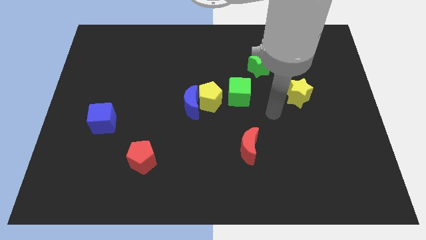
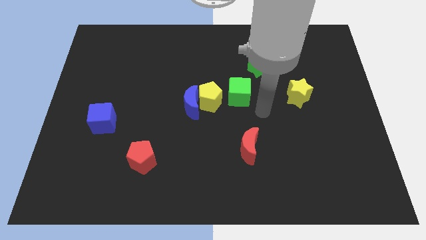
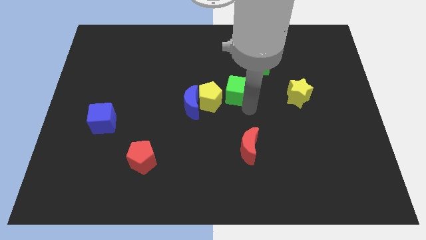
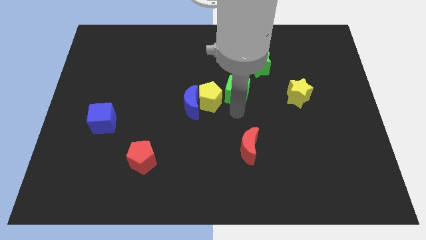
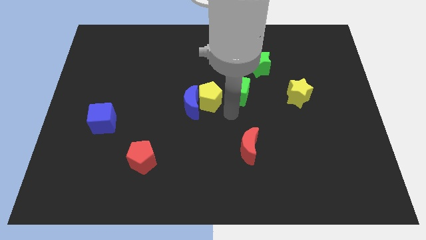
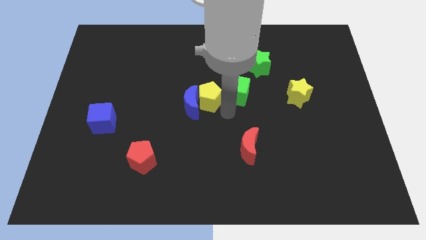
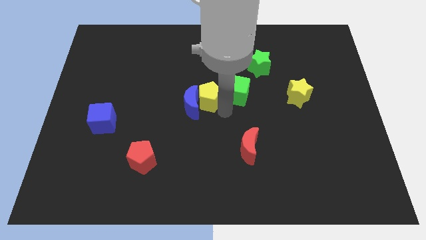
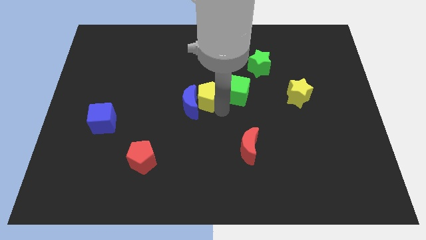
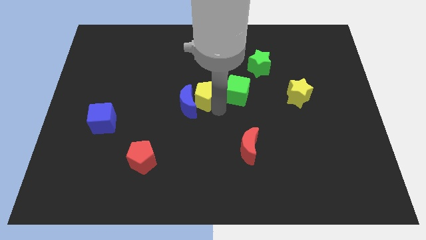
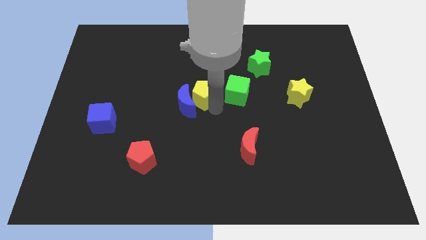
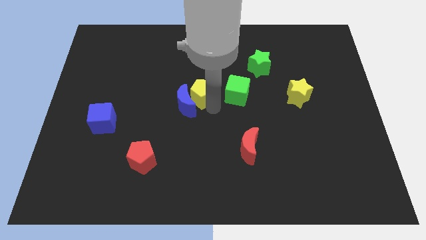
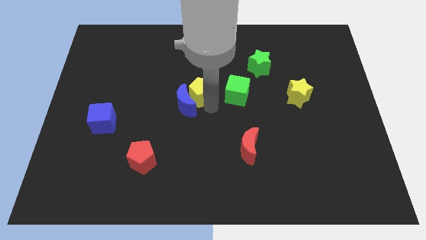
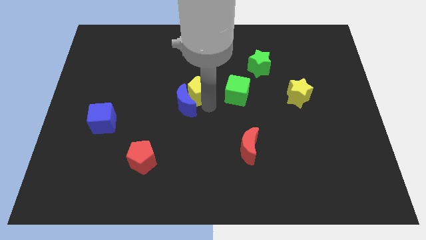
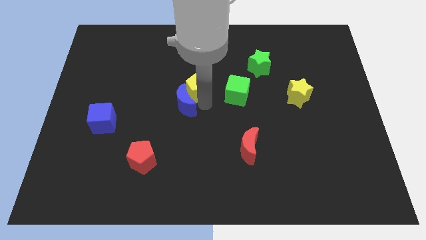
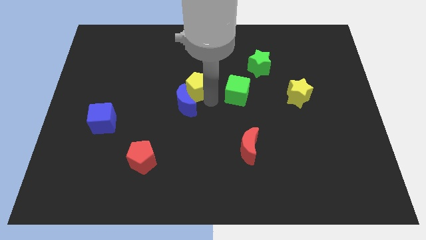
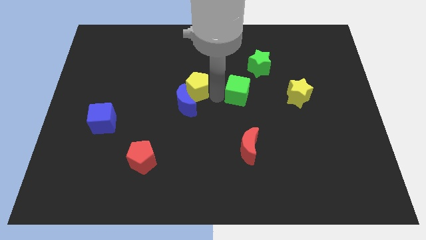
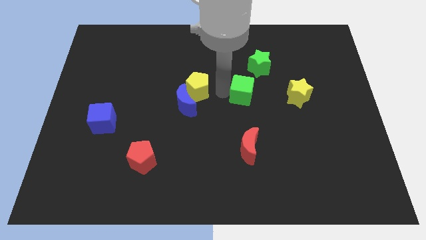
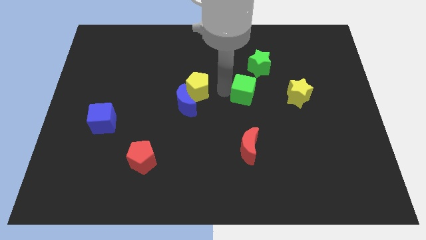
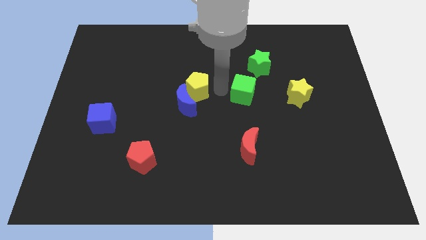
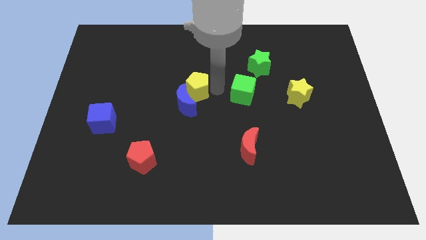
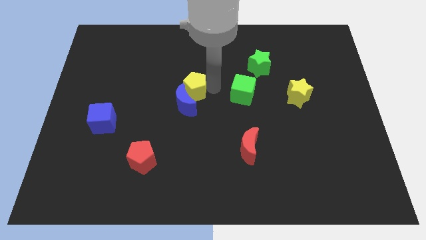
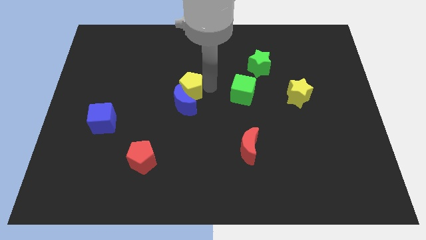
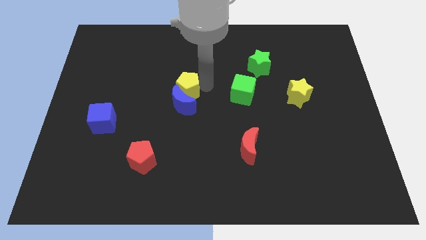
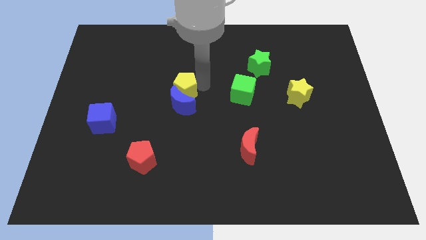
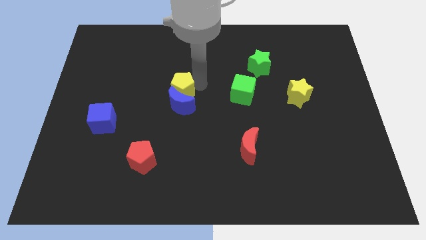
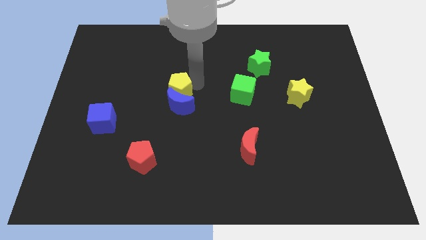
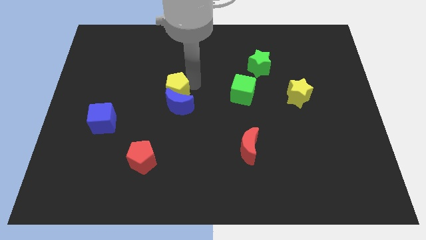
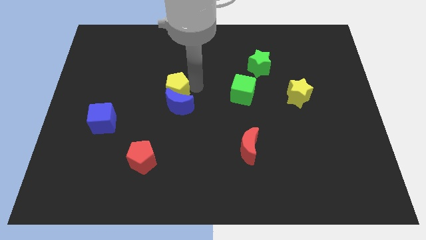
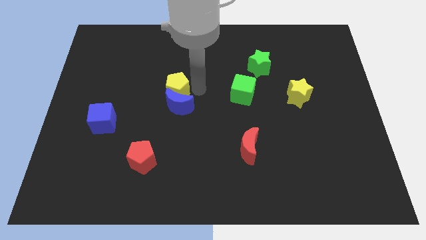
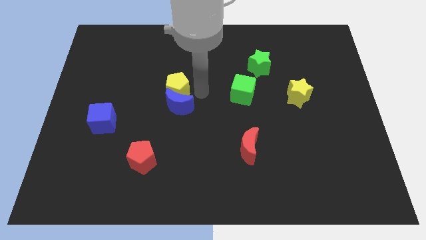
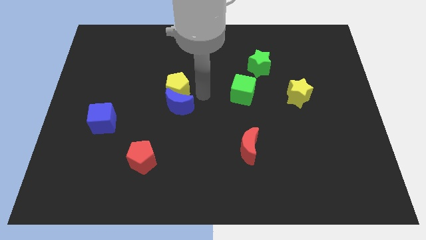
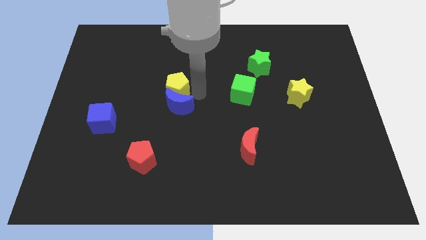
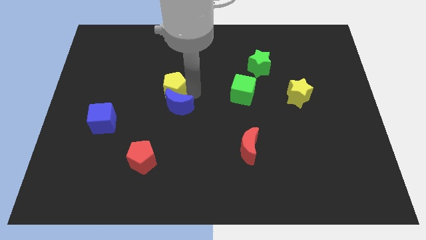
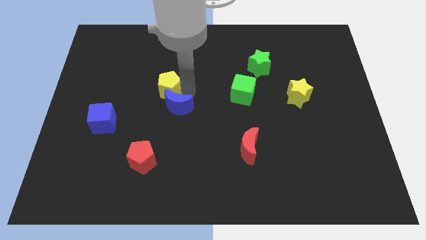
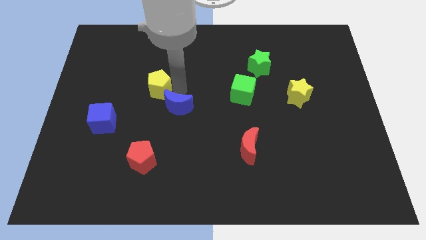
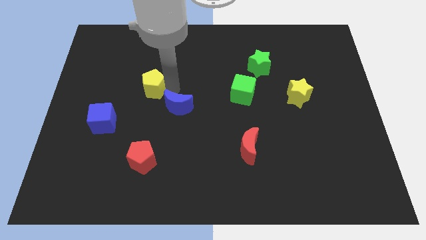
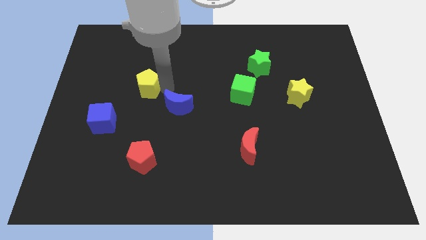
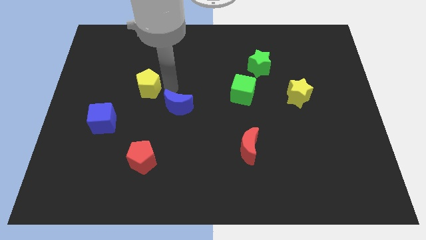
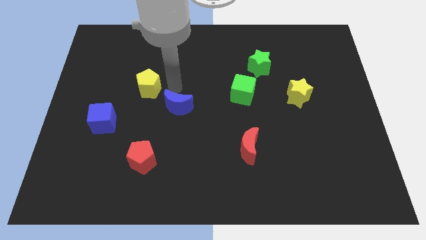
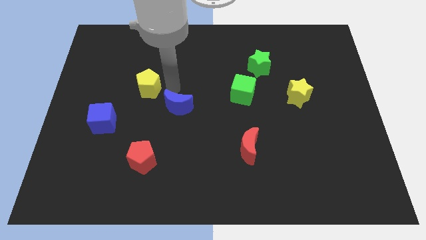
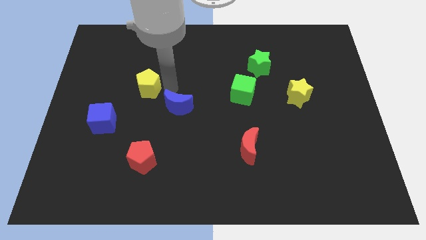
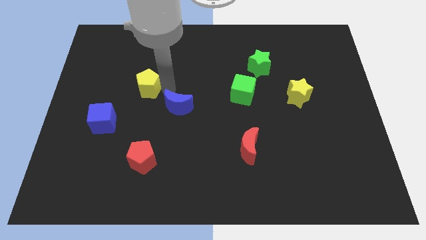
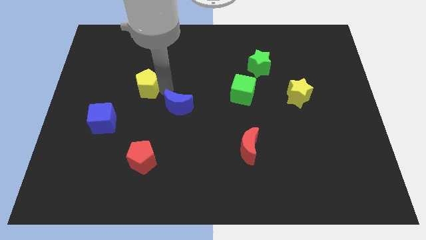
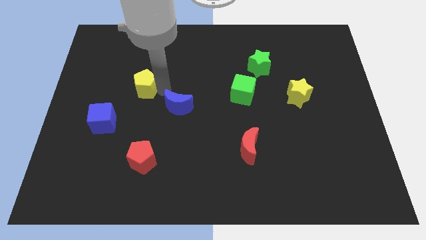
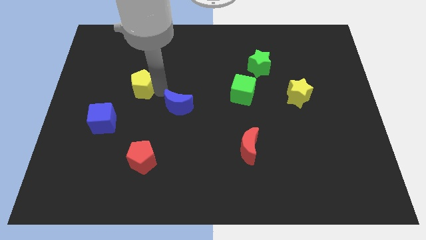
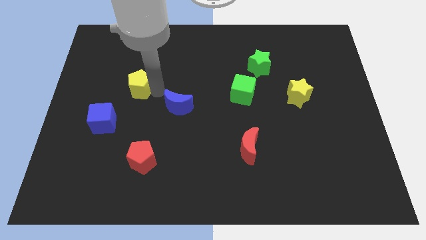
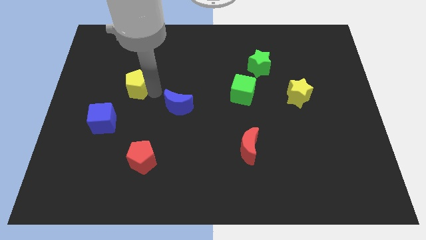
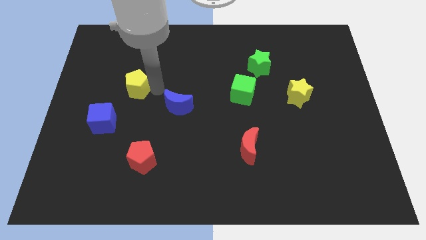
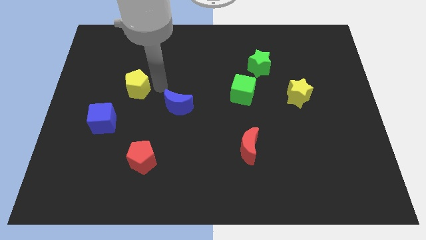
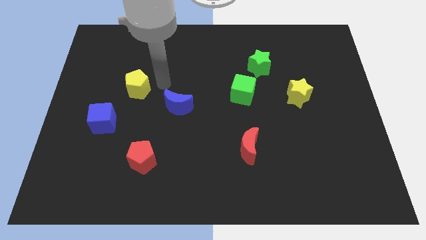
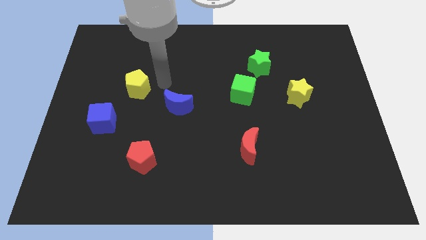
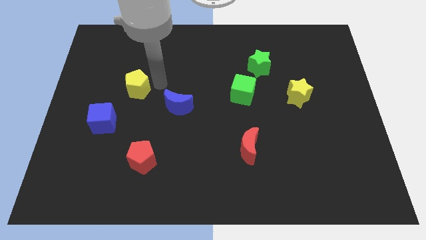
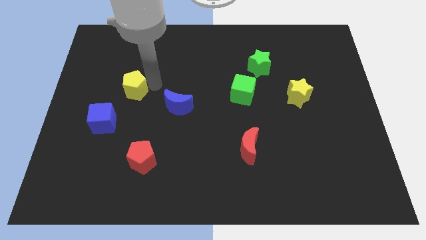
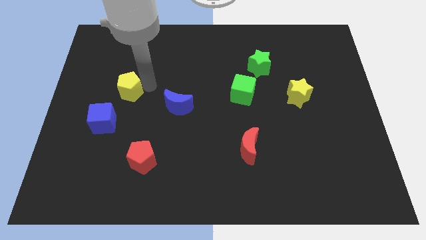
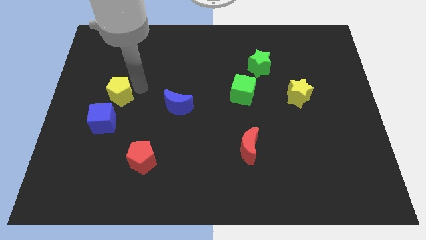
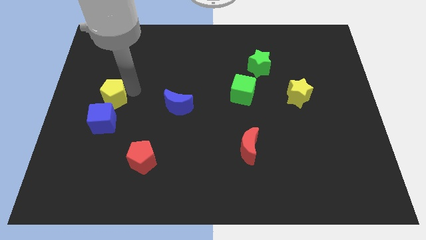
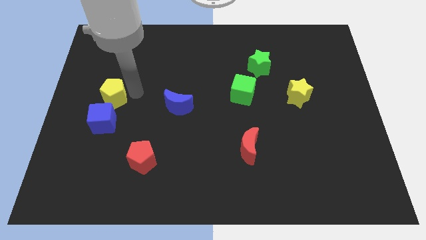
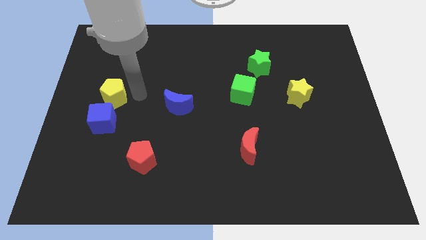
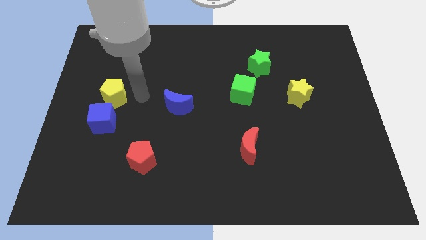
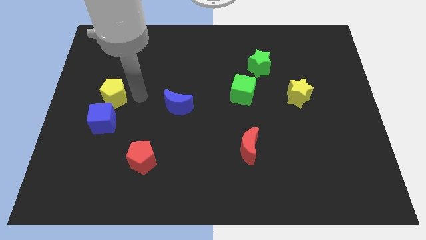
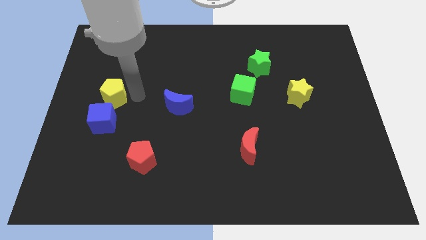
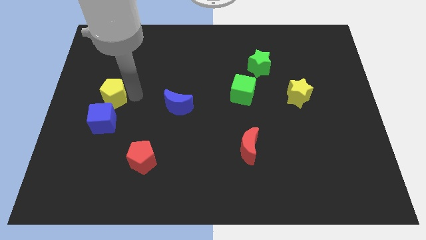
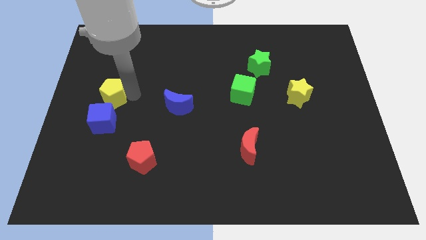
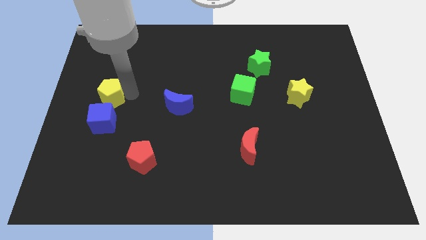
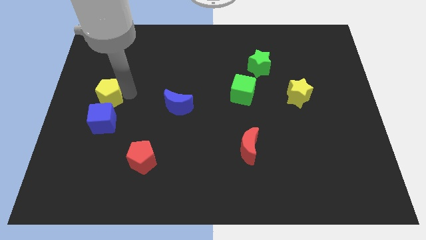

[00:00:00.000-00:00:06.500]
move the yellow pentagon to the left side of the board
